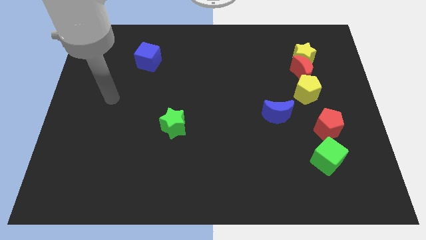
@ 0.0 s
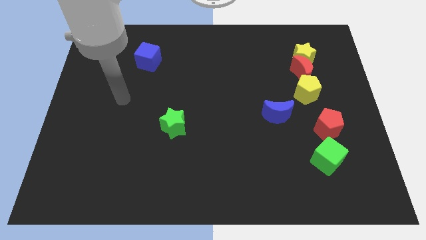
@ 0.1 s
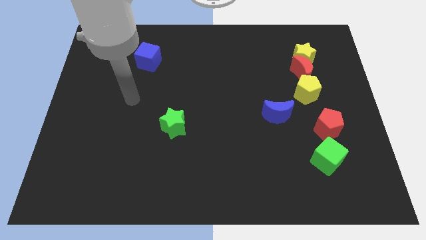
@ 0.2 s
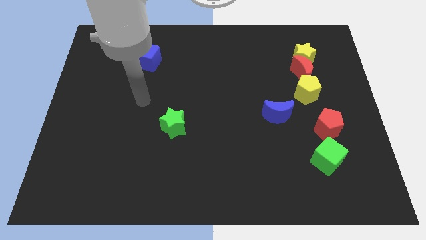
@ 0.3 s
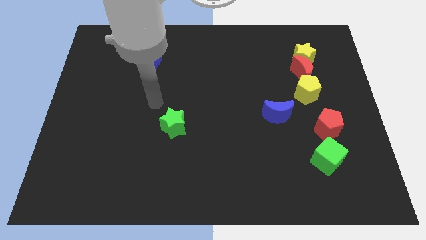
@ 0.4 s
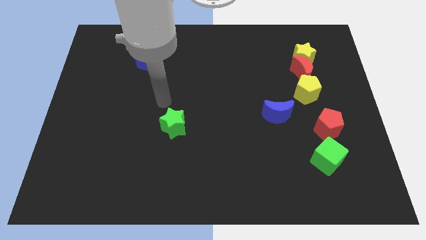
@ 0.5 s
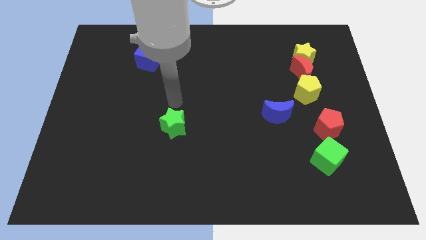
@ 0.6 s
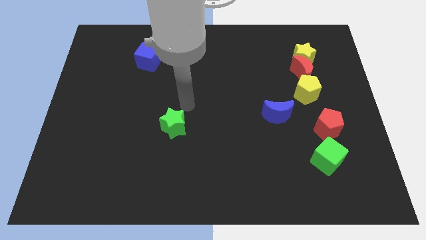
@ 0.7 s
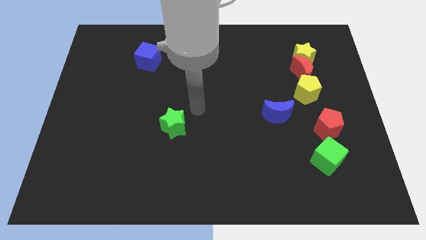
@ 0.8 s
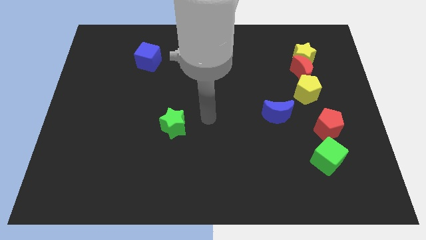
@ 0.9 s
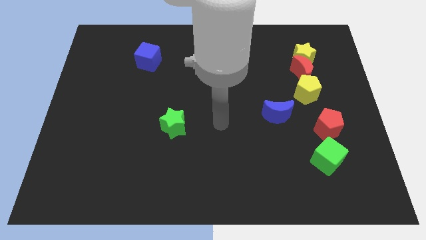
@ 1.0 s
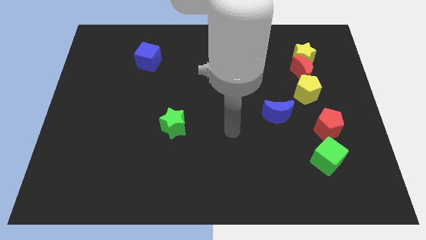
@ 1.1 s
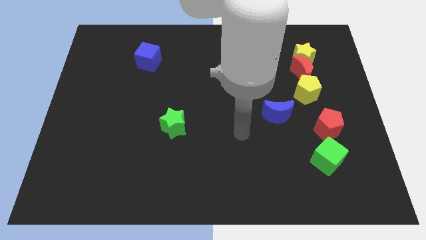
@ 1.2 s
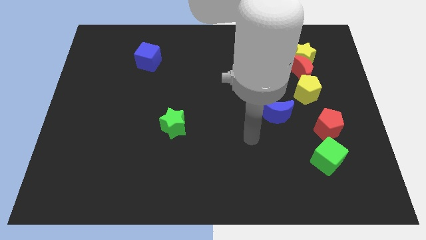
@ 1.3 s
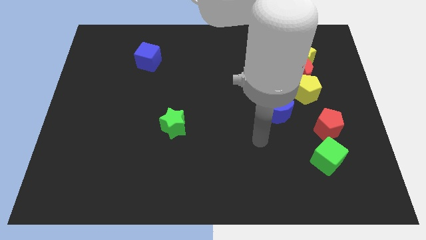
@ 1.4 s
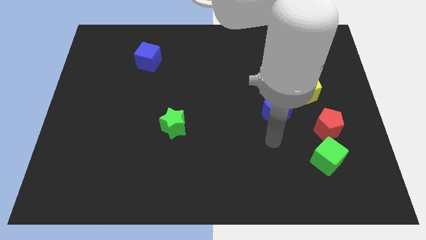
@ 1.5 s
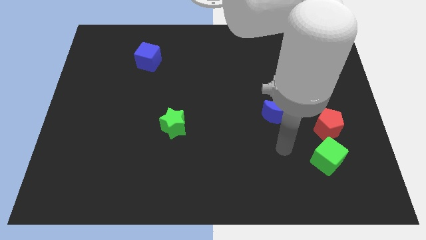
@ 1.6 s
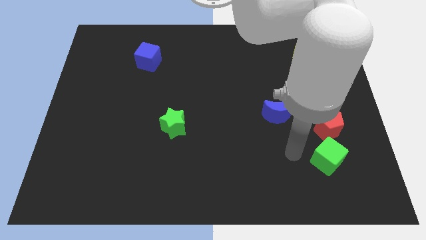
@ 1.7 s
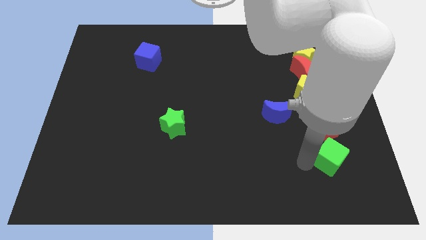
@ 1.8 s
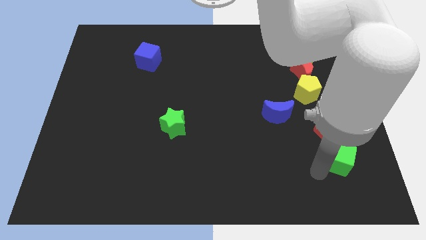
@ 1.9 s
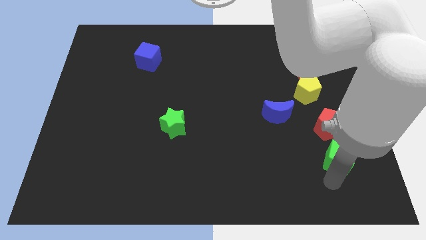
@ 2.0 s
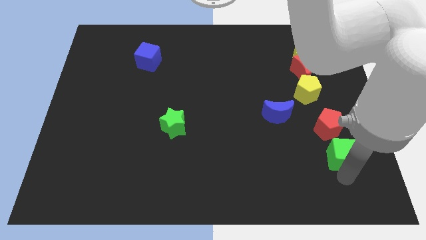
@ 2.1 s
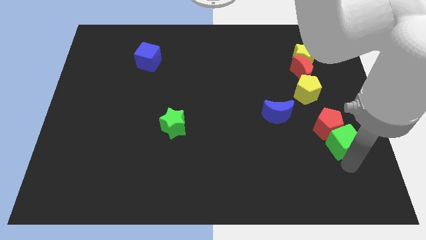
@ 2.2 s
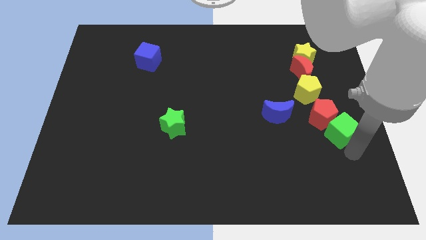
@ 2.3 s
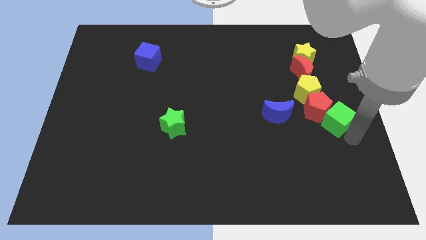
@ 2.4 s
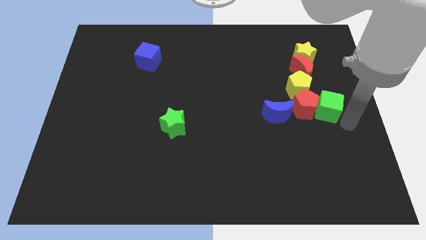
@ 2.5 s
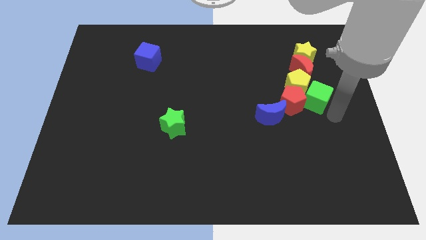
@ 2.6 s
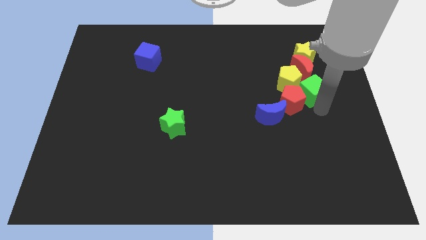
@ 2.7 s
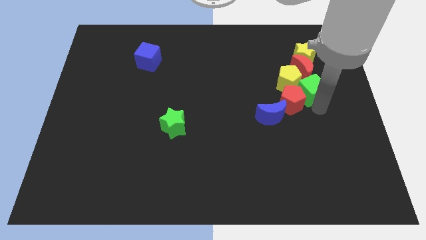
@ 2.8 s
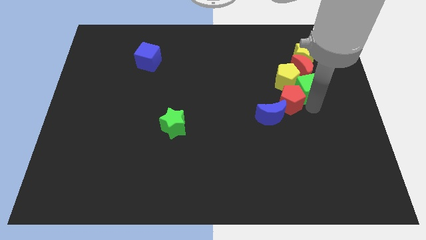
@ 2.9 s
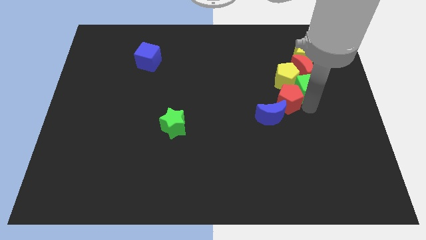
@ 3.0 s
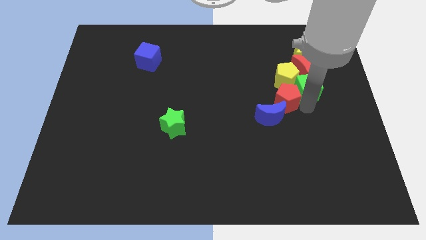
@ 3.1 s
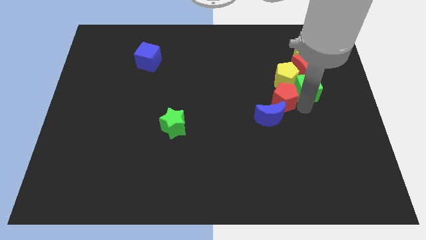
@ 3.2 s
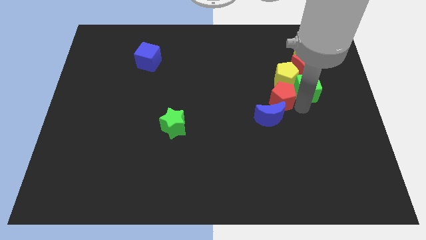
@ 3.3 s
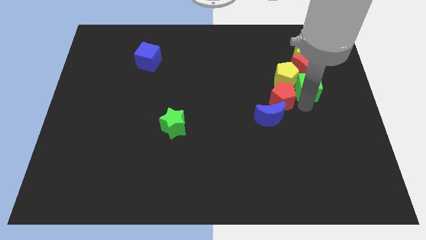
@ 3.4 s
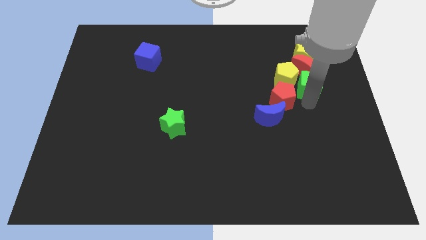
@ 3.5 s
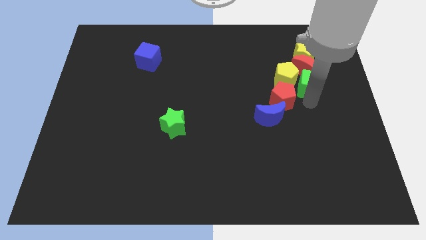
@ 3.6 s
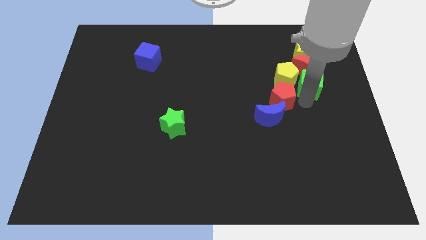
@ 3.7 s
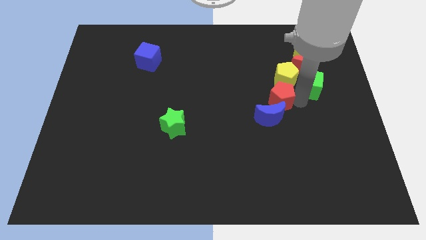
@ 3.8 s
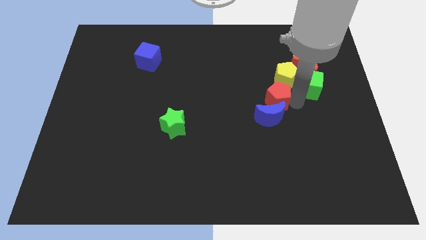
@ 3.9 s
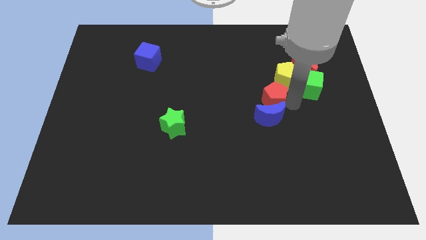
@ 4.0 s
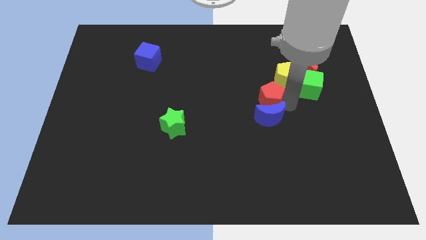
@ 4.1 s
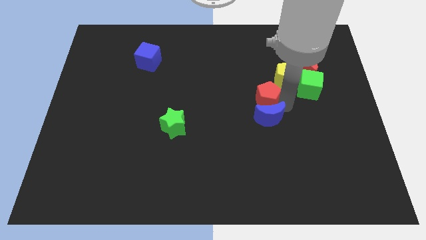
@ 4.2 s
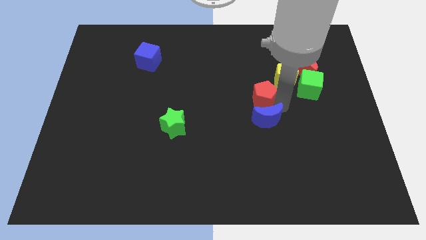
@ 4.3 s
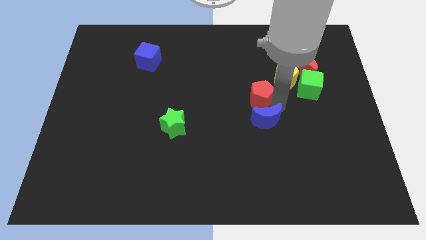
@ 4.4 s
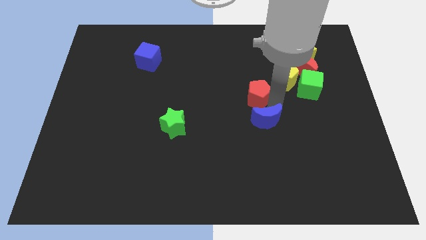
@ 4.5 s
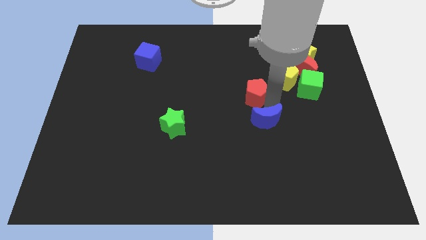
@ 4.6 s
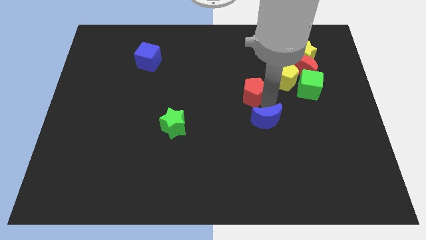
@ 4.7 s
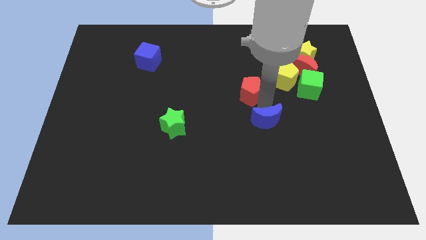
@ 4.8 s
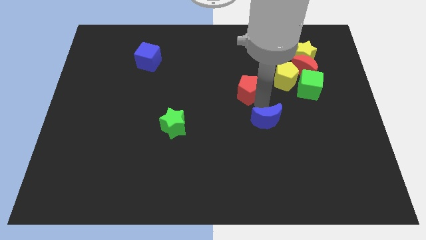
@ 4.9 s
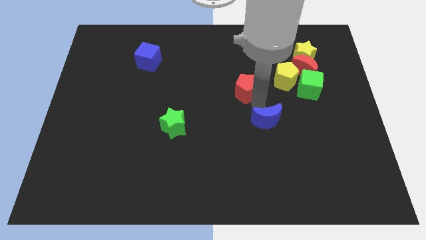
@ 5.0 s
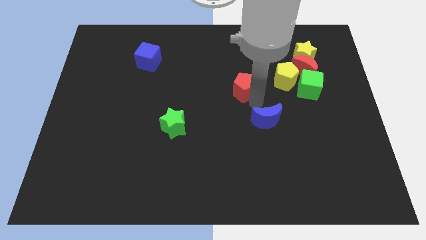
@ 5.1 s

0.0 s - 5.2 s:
slide the red pentagon diagonally upwards and left

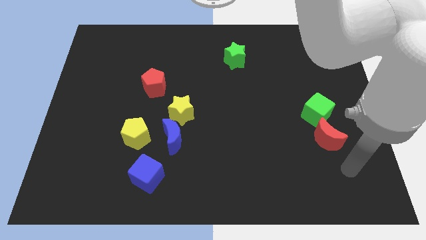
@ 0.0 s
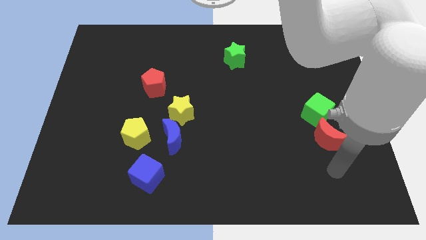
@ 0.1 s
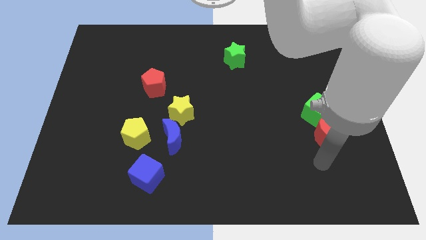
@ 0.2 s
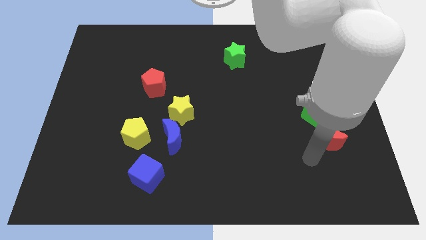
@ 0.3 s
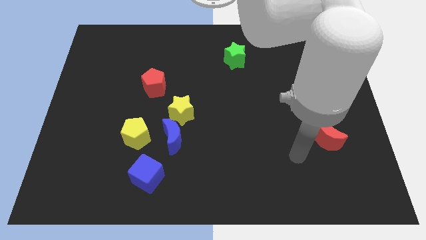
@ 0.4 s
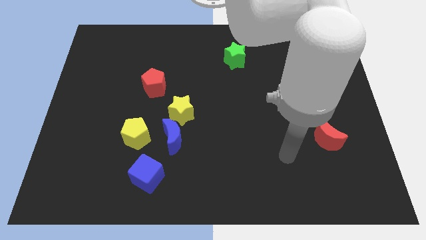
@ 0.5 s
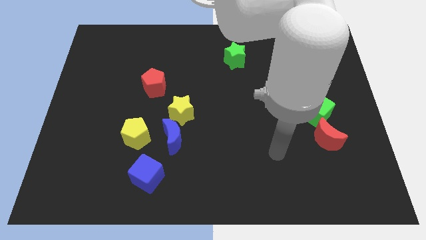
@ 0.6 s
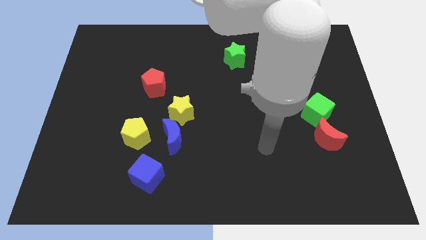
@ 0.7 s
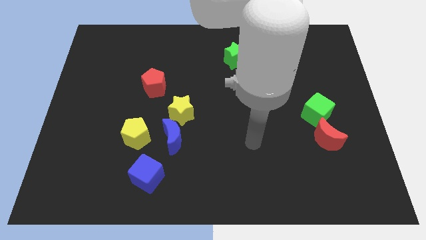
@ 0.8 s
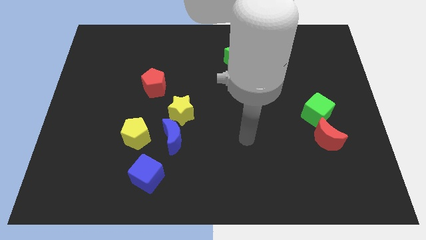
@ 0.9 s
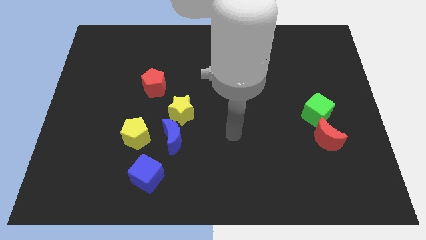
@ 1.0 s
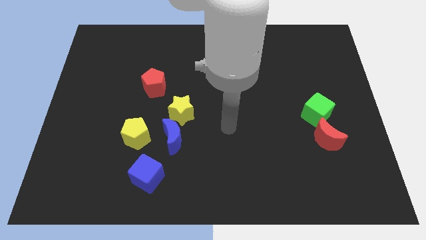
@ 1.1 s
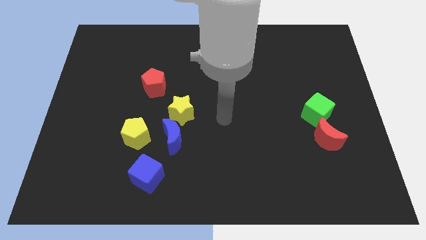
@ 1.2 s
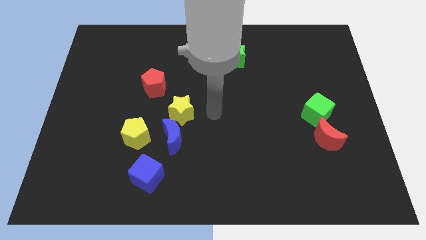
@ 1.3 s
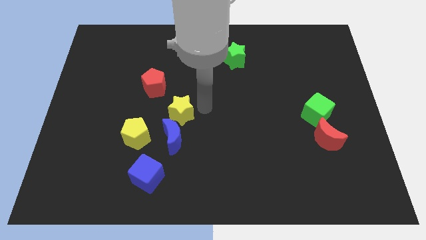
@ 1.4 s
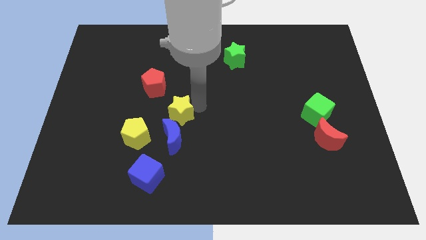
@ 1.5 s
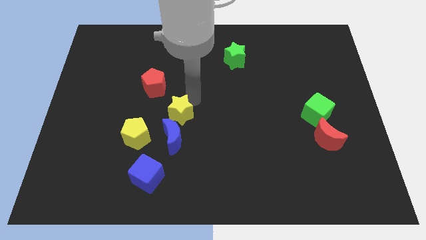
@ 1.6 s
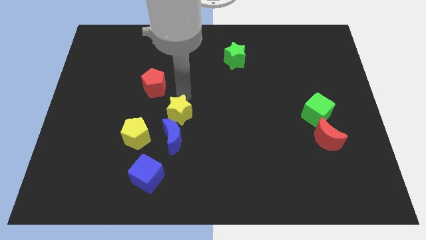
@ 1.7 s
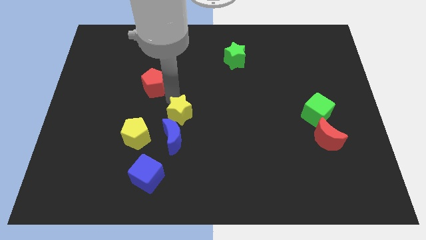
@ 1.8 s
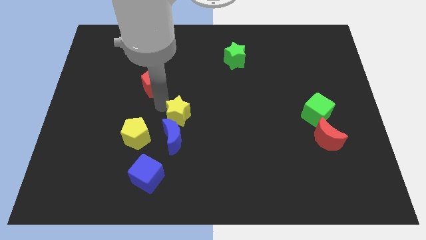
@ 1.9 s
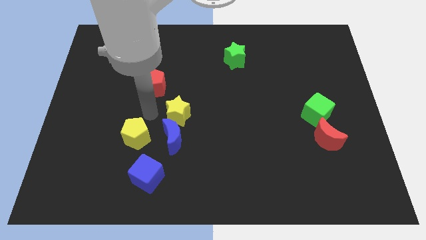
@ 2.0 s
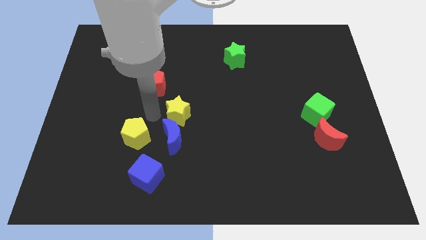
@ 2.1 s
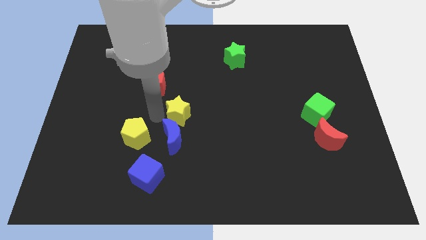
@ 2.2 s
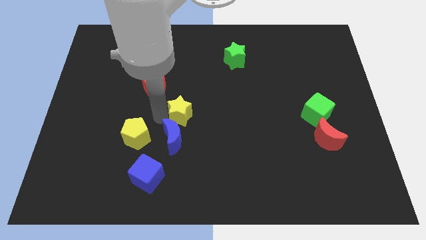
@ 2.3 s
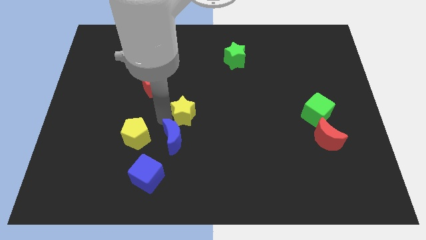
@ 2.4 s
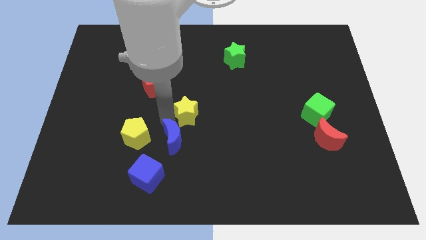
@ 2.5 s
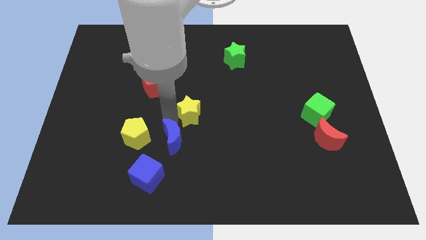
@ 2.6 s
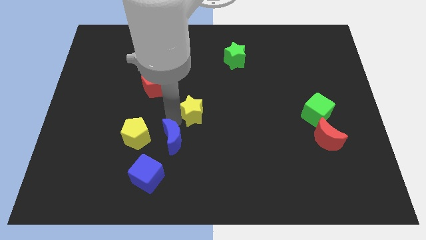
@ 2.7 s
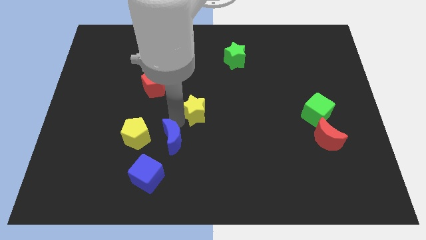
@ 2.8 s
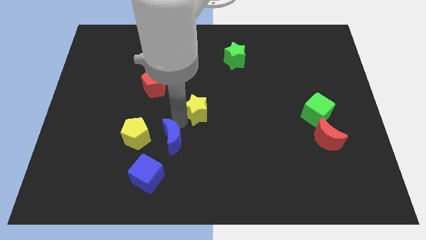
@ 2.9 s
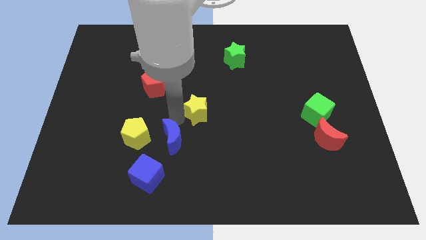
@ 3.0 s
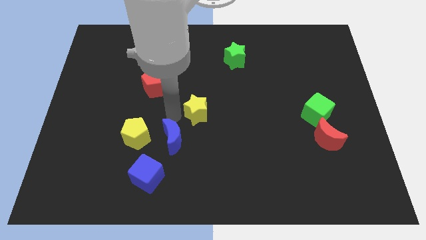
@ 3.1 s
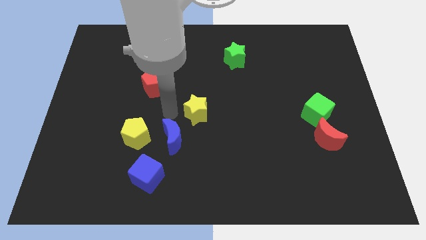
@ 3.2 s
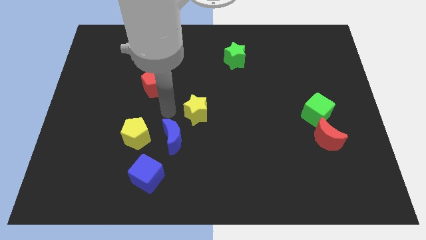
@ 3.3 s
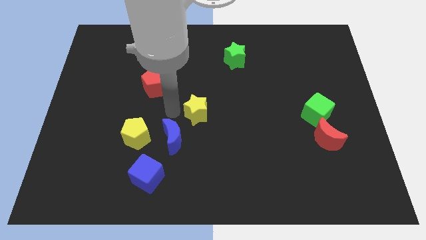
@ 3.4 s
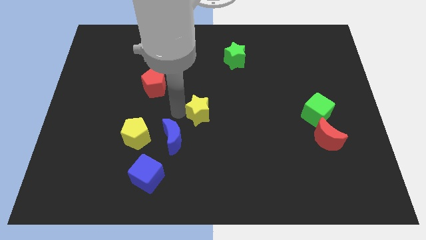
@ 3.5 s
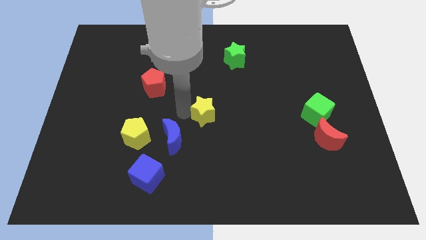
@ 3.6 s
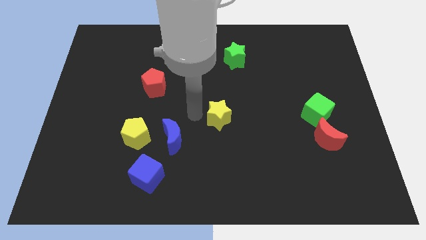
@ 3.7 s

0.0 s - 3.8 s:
slide the yellow star to the right a bit
